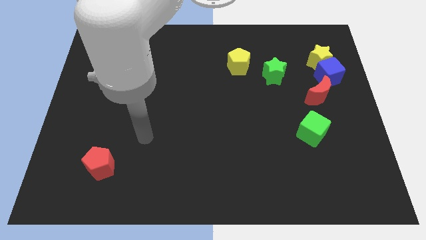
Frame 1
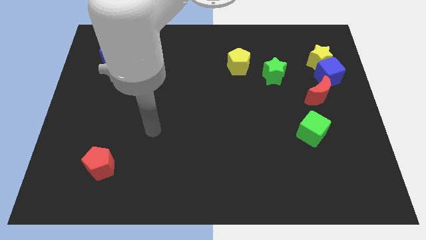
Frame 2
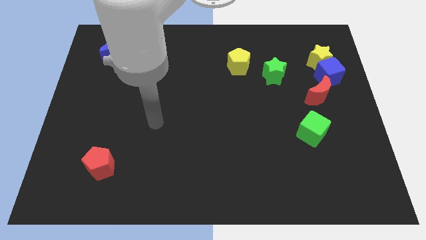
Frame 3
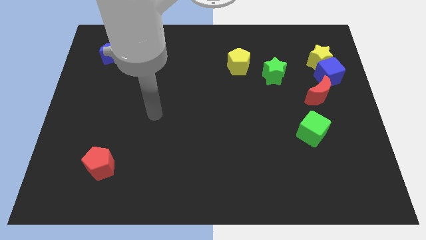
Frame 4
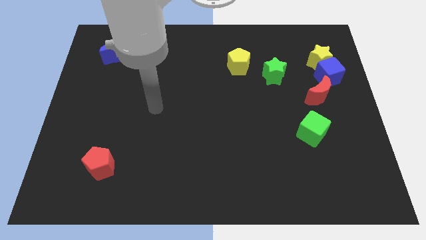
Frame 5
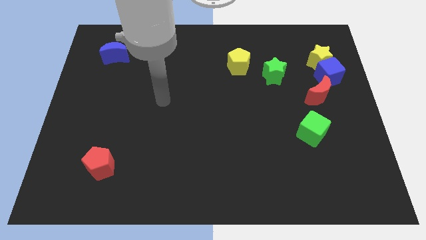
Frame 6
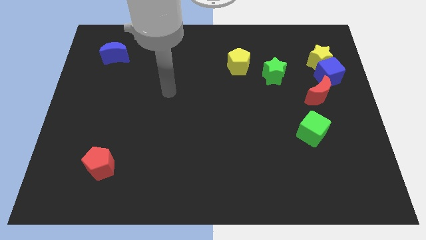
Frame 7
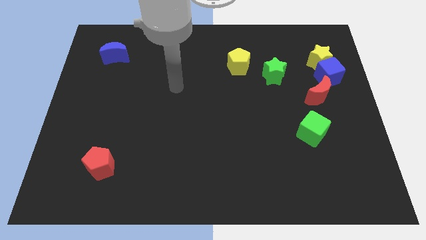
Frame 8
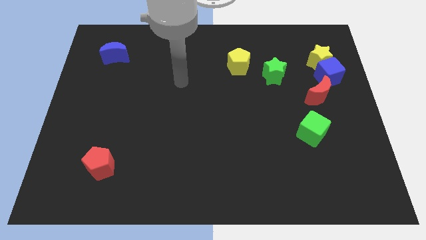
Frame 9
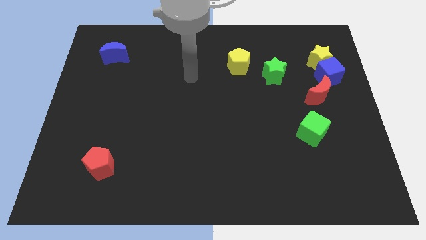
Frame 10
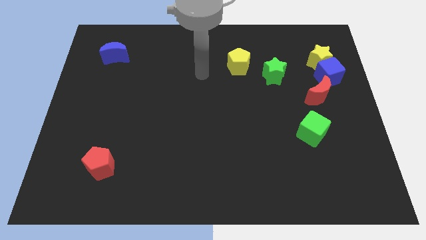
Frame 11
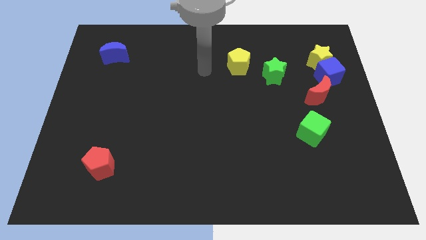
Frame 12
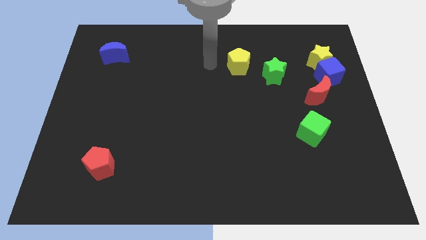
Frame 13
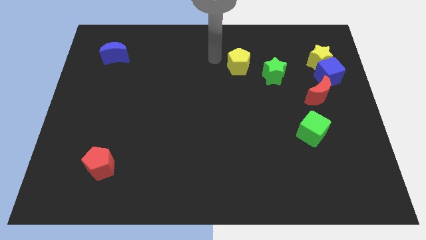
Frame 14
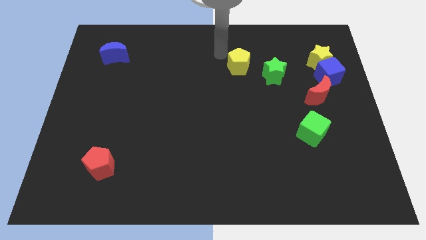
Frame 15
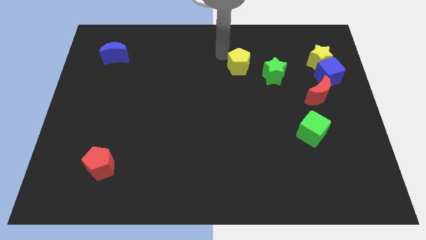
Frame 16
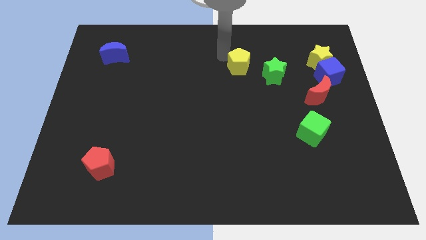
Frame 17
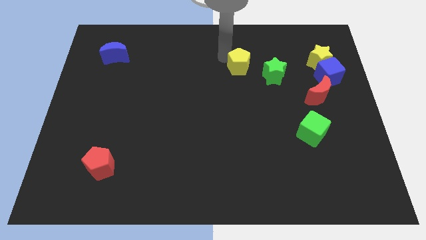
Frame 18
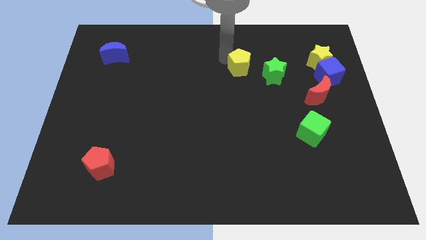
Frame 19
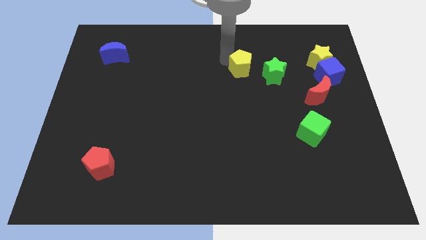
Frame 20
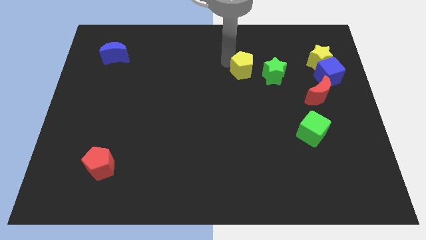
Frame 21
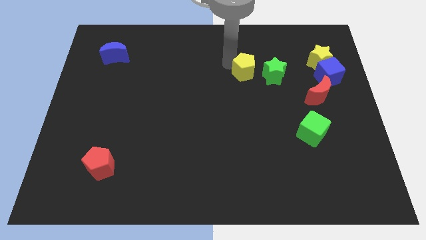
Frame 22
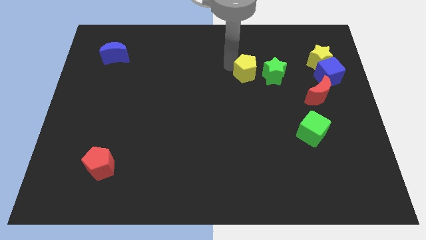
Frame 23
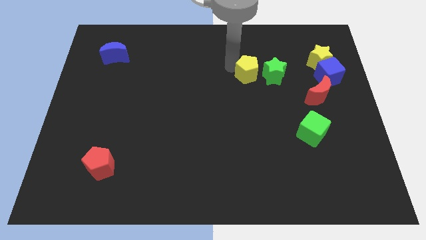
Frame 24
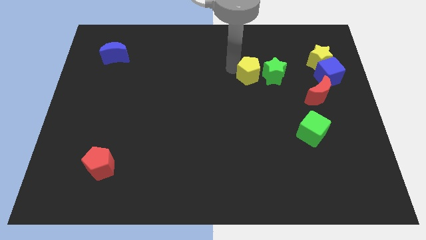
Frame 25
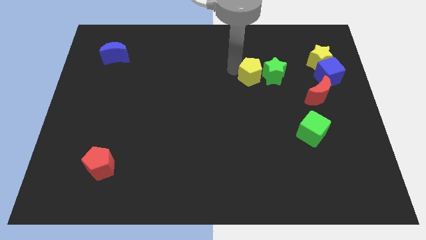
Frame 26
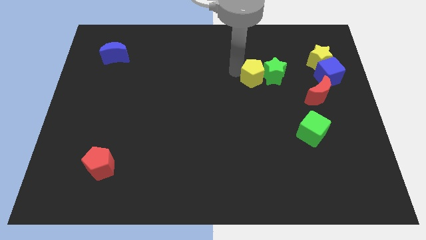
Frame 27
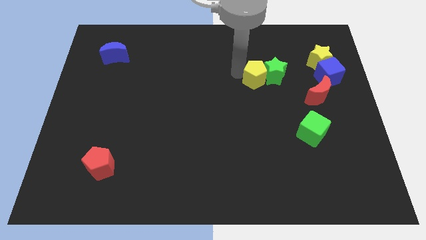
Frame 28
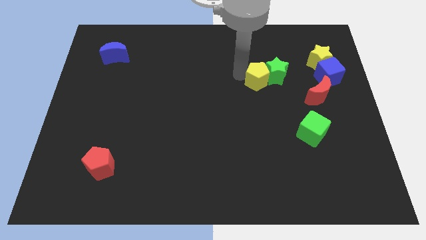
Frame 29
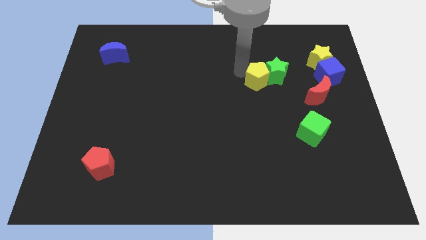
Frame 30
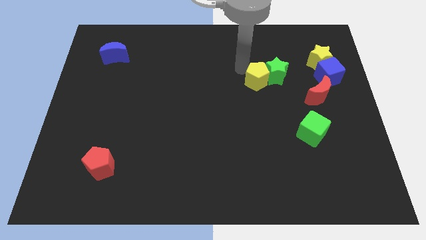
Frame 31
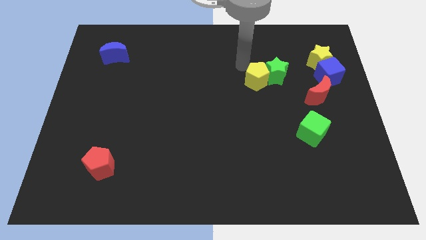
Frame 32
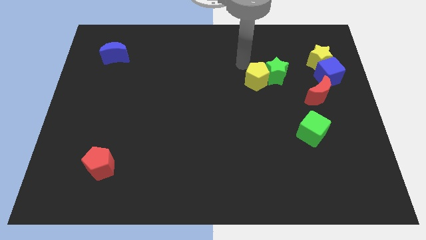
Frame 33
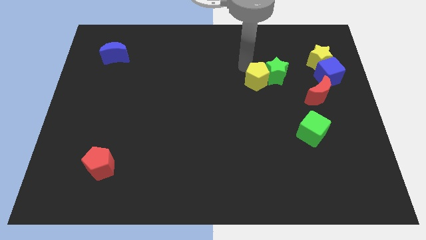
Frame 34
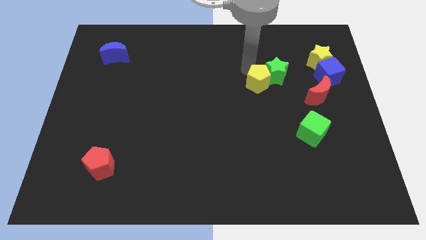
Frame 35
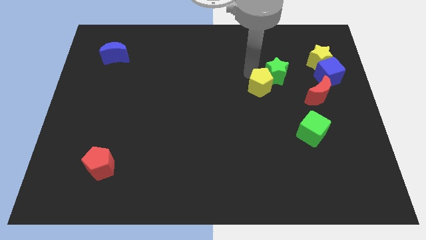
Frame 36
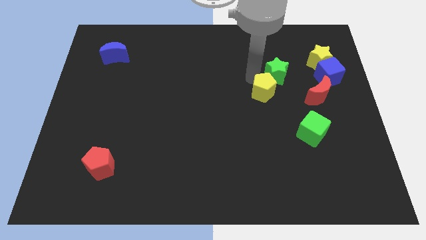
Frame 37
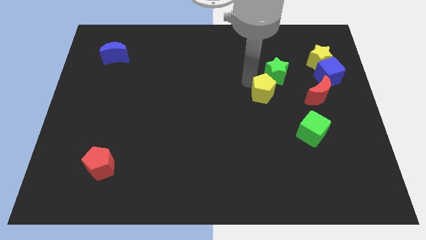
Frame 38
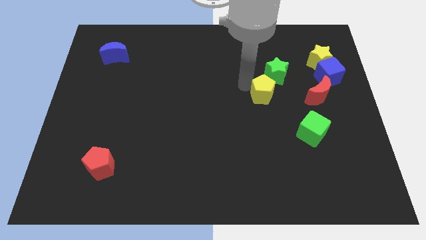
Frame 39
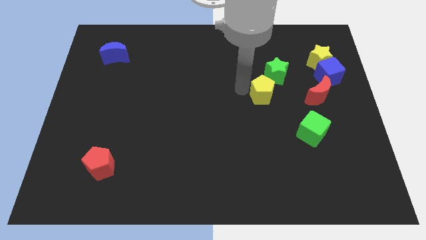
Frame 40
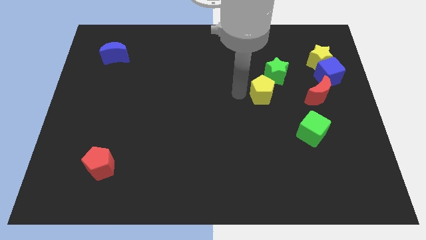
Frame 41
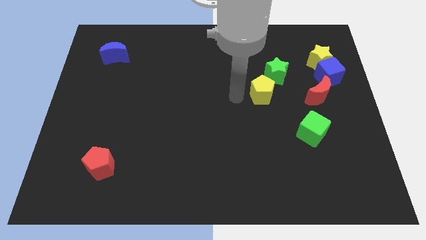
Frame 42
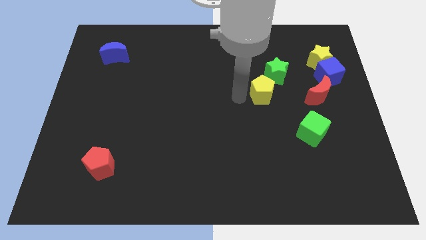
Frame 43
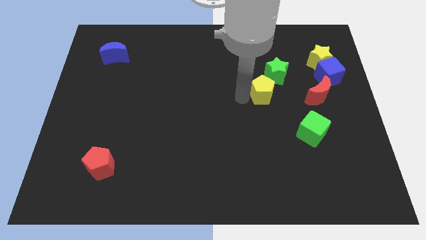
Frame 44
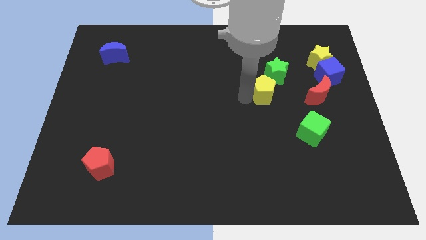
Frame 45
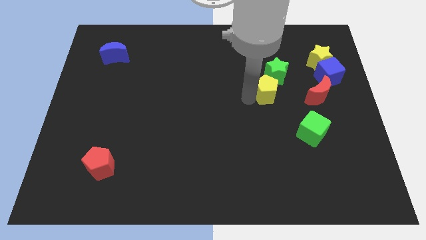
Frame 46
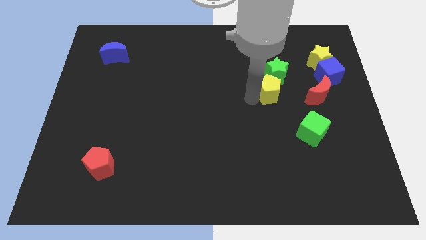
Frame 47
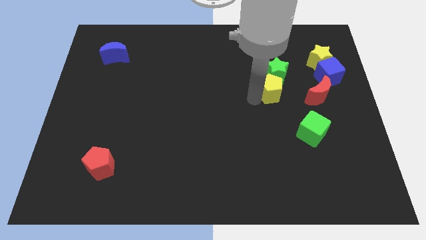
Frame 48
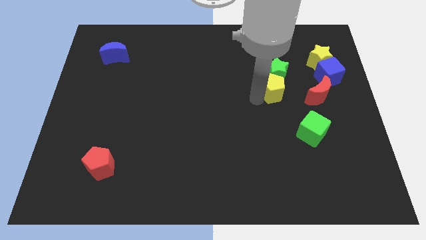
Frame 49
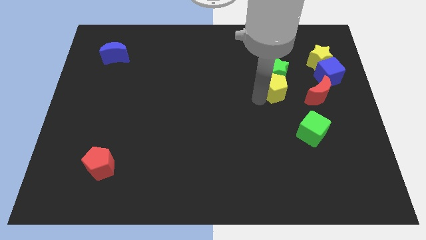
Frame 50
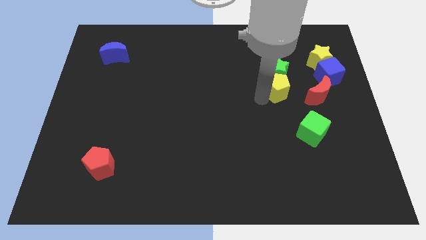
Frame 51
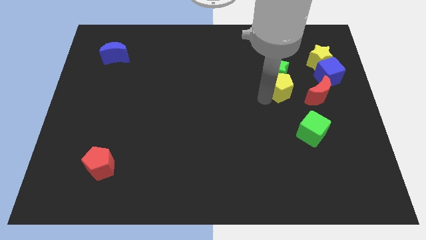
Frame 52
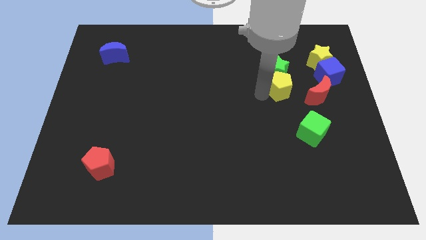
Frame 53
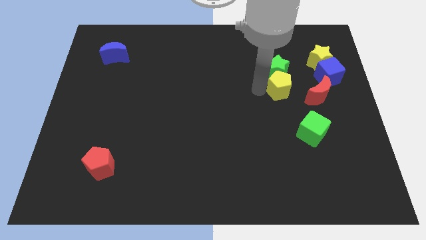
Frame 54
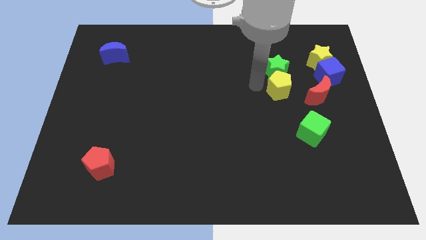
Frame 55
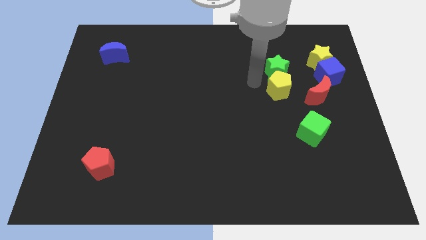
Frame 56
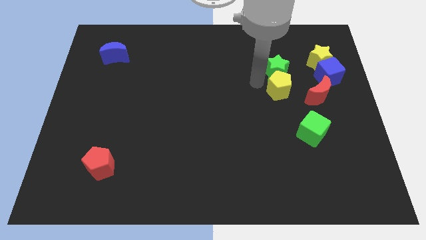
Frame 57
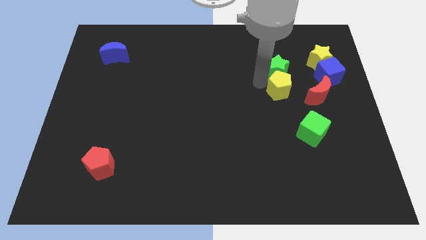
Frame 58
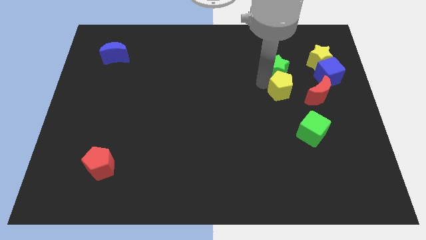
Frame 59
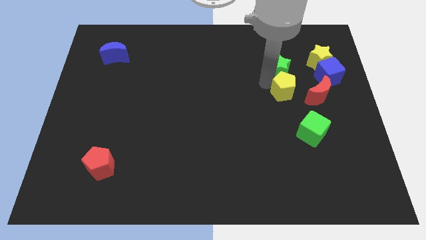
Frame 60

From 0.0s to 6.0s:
push the yellow pentagon above the green cube
